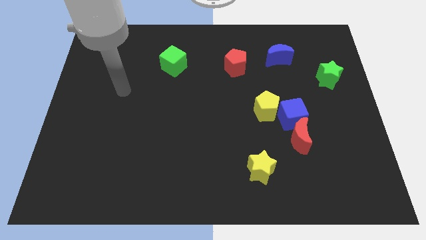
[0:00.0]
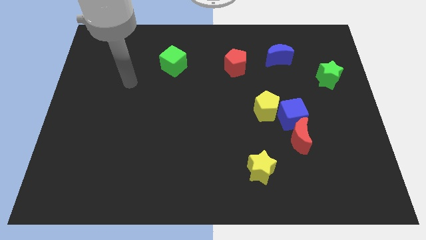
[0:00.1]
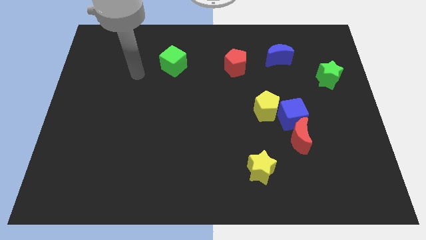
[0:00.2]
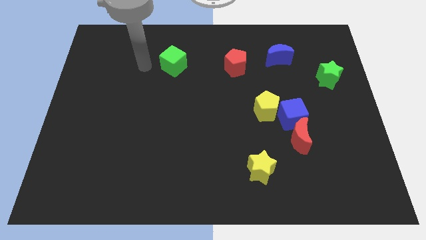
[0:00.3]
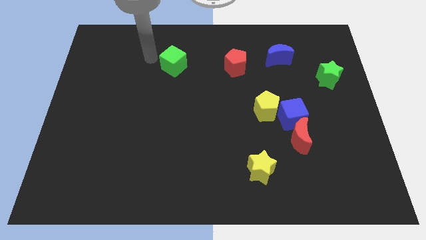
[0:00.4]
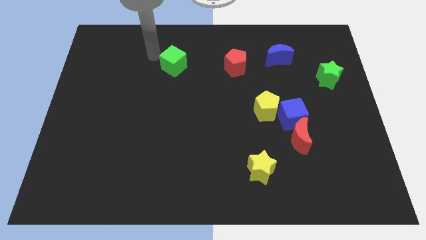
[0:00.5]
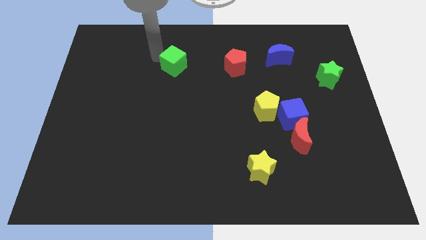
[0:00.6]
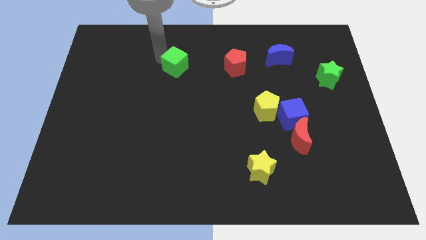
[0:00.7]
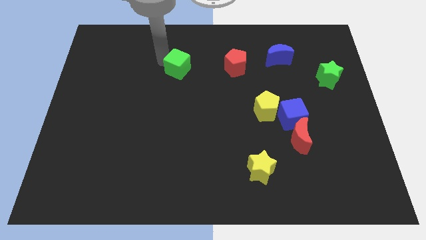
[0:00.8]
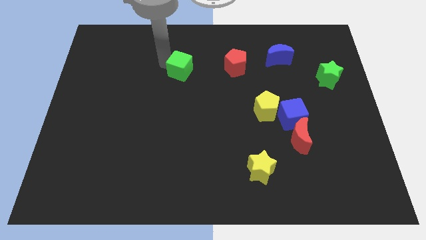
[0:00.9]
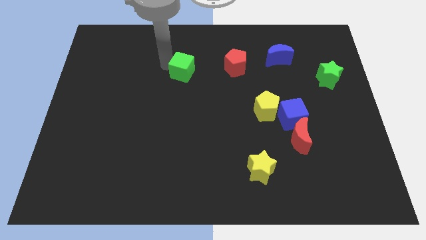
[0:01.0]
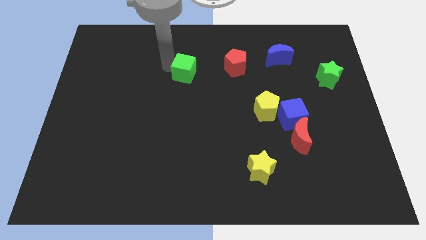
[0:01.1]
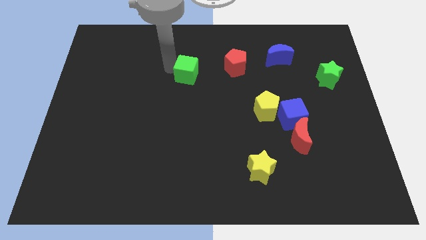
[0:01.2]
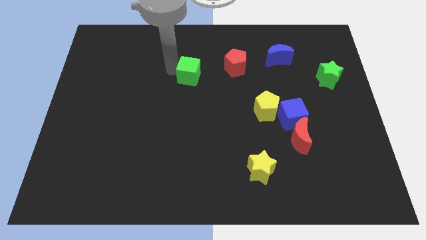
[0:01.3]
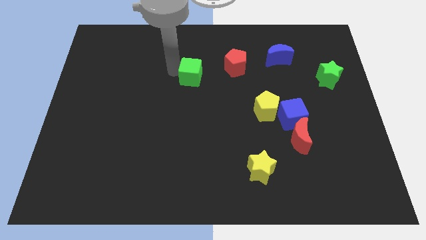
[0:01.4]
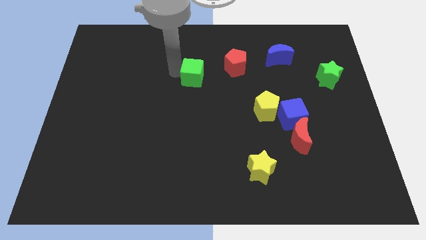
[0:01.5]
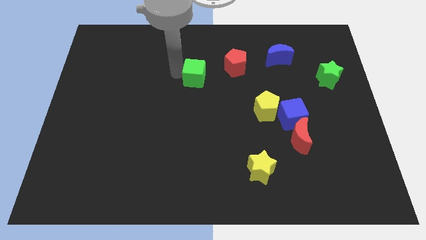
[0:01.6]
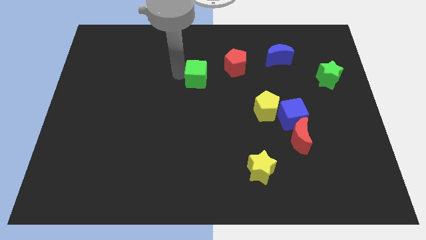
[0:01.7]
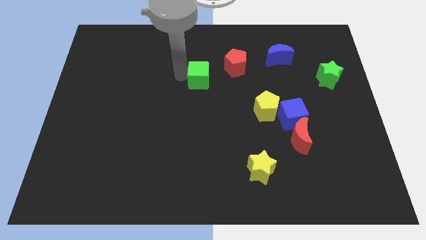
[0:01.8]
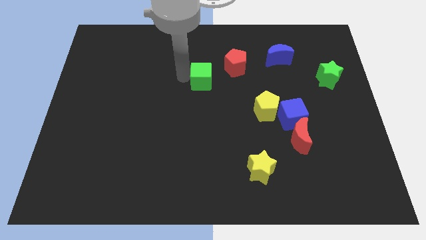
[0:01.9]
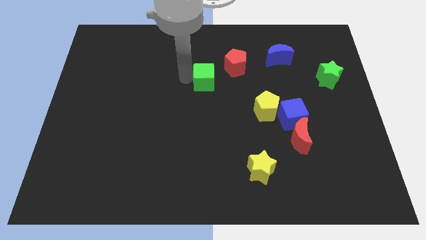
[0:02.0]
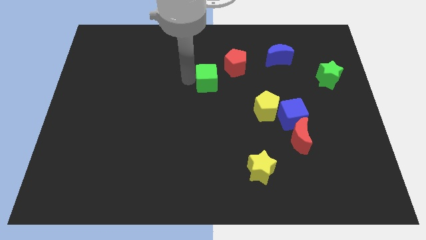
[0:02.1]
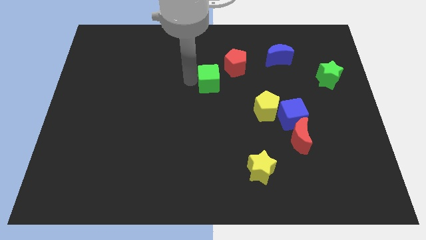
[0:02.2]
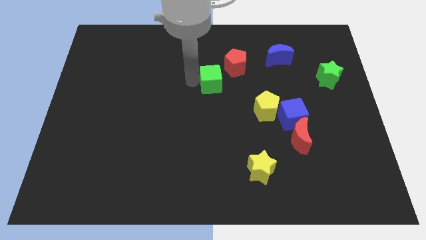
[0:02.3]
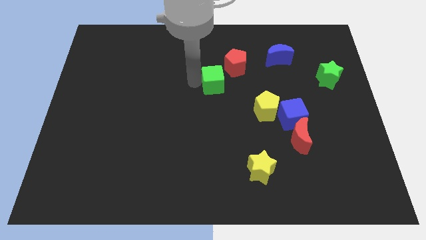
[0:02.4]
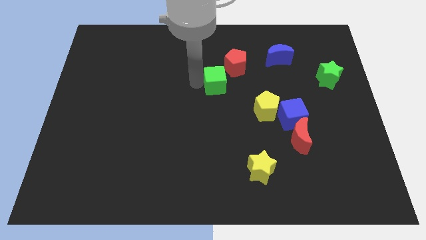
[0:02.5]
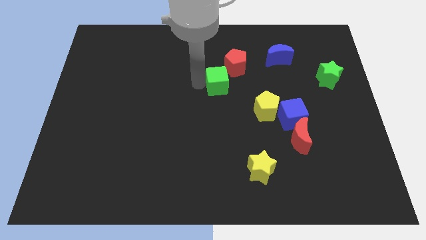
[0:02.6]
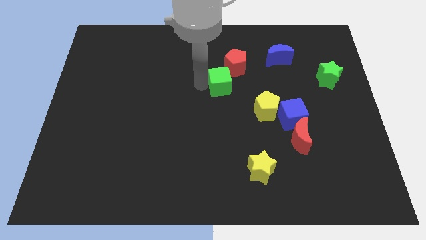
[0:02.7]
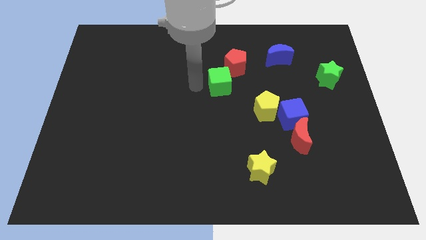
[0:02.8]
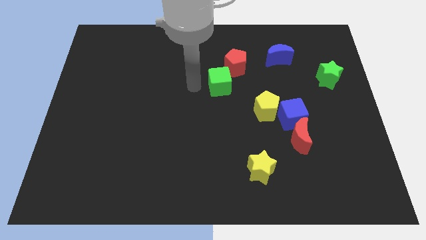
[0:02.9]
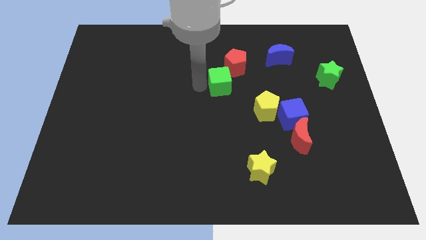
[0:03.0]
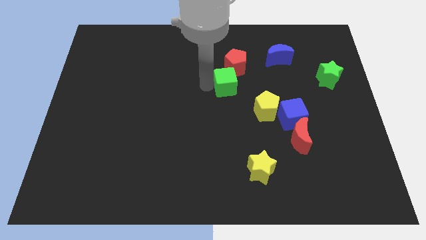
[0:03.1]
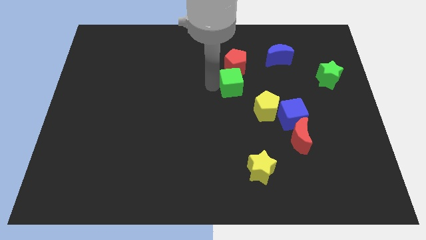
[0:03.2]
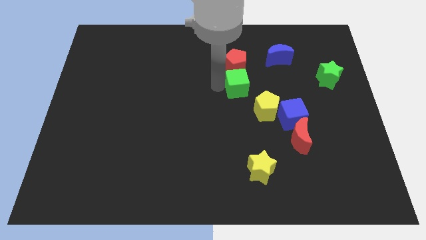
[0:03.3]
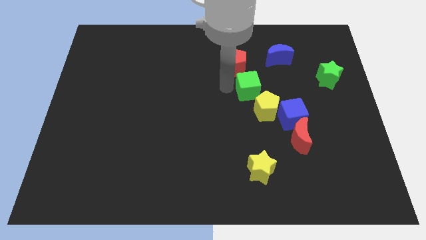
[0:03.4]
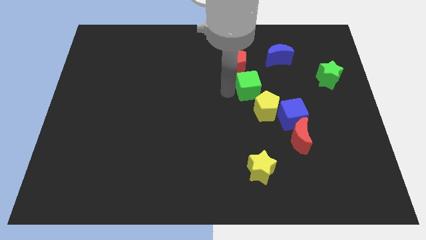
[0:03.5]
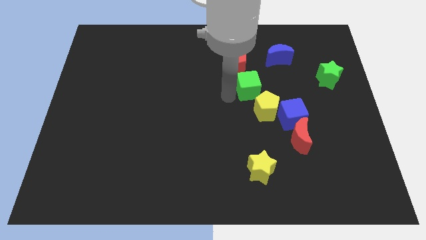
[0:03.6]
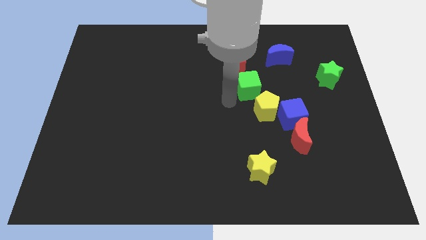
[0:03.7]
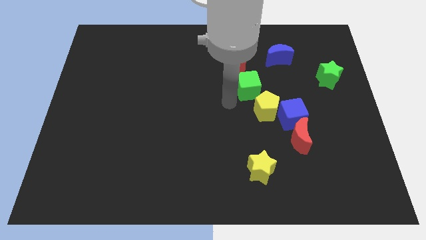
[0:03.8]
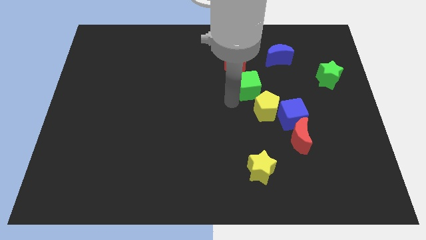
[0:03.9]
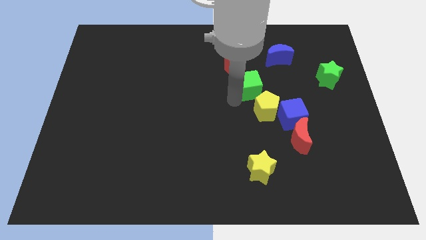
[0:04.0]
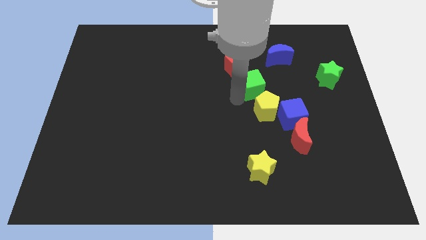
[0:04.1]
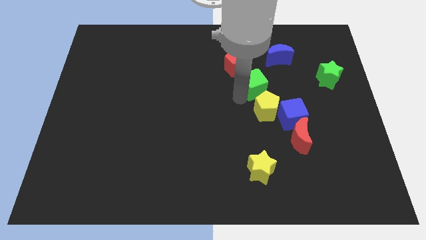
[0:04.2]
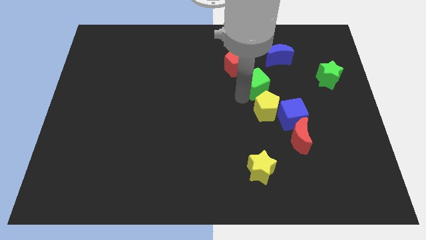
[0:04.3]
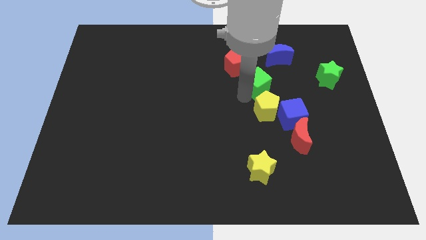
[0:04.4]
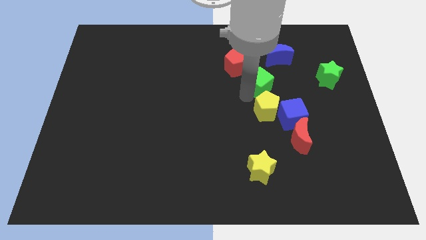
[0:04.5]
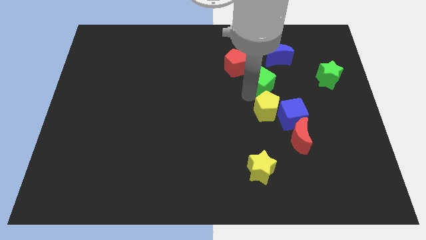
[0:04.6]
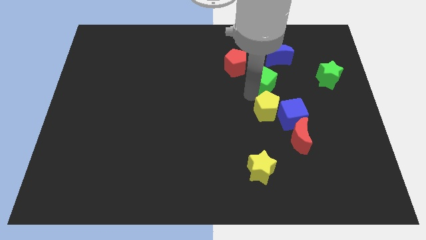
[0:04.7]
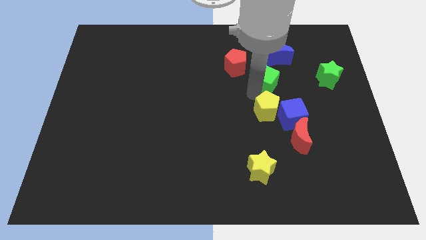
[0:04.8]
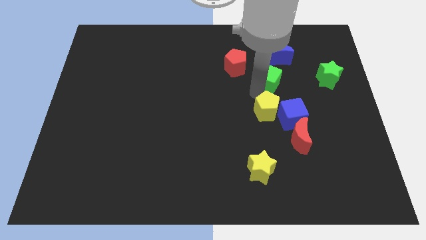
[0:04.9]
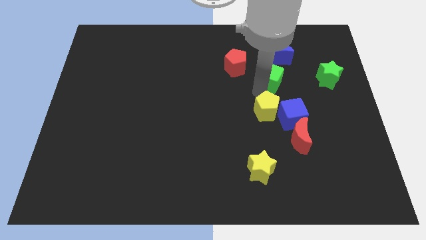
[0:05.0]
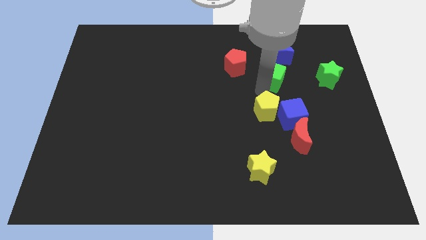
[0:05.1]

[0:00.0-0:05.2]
put the green cube just right of the red pentagon

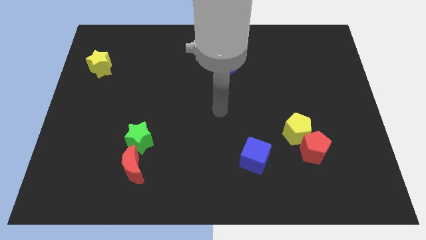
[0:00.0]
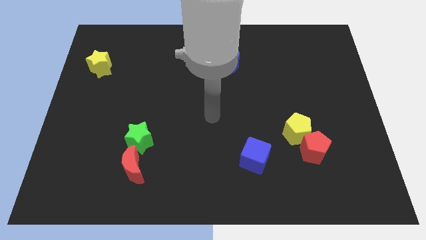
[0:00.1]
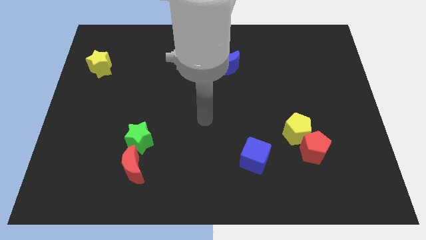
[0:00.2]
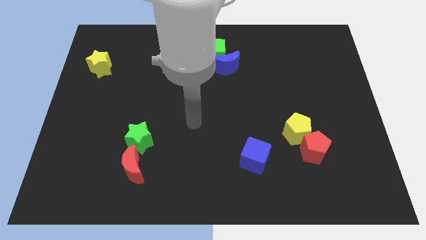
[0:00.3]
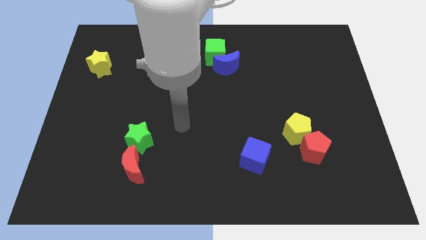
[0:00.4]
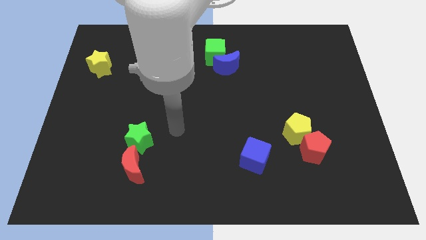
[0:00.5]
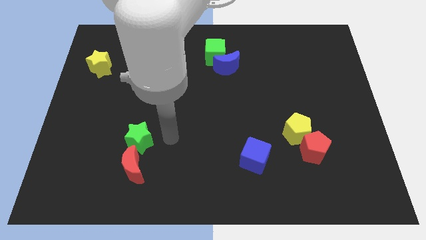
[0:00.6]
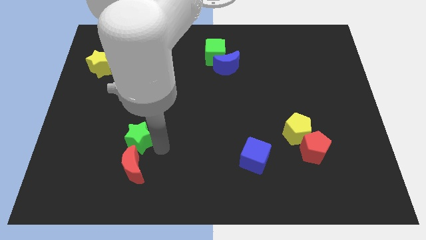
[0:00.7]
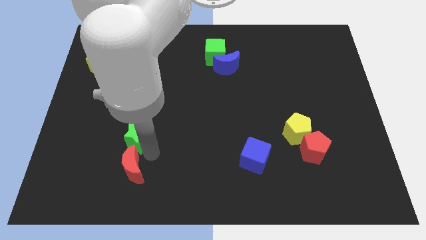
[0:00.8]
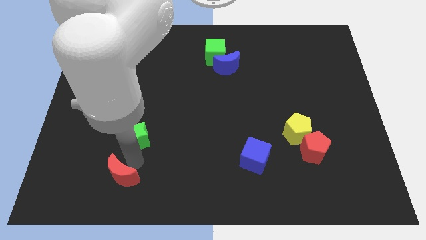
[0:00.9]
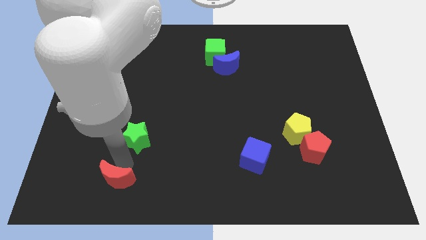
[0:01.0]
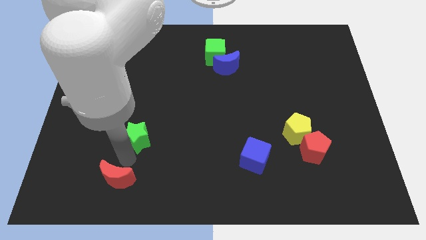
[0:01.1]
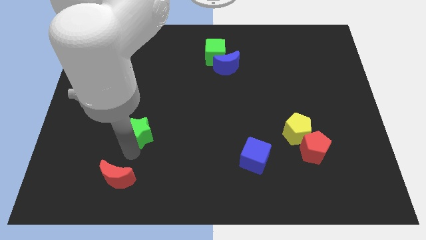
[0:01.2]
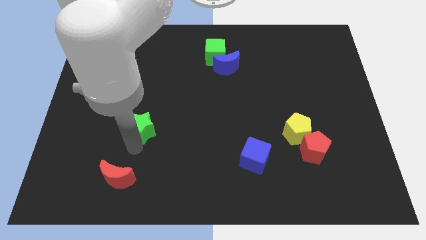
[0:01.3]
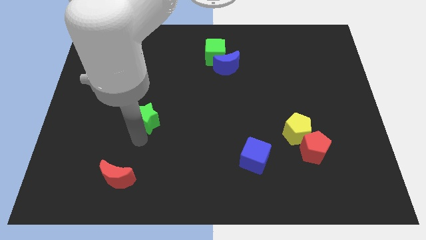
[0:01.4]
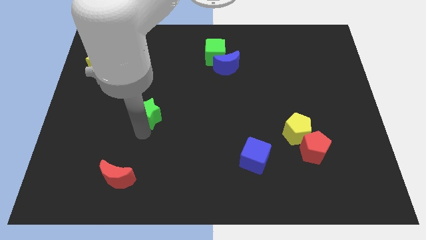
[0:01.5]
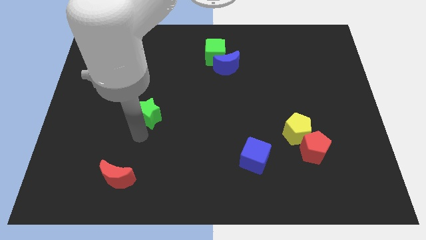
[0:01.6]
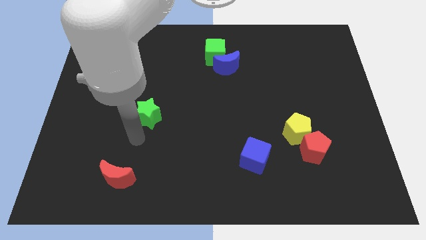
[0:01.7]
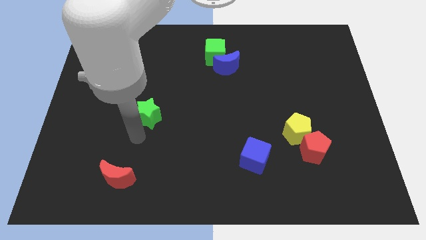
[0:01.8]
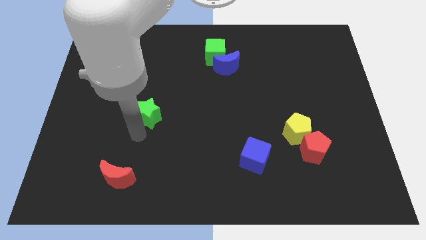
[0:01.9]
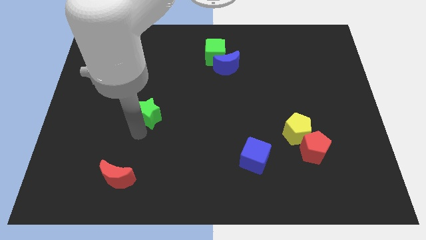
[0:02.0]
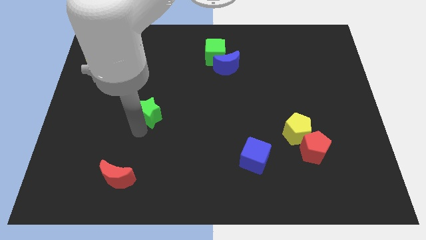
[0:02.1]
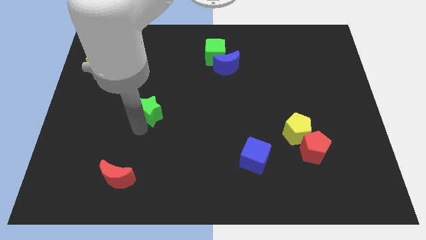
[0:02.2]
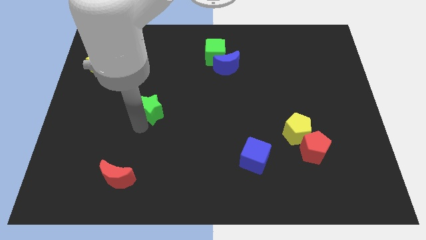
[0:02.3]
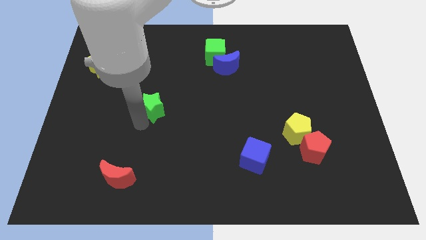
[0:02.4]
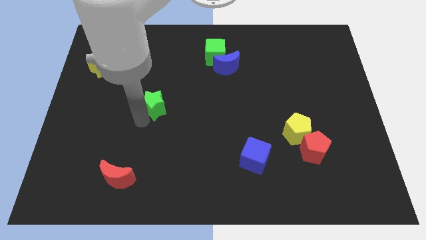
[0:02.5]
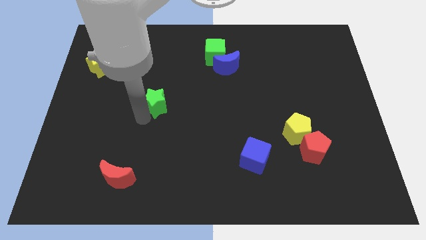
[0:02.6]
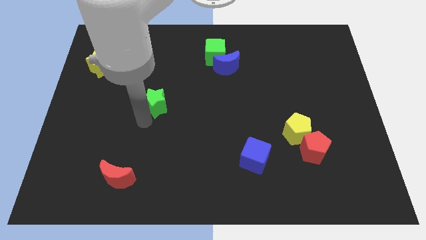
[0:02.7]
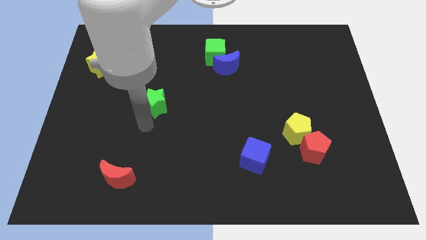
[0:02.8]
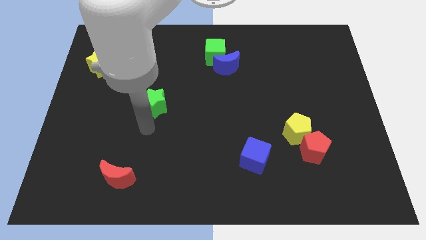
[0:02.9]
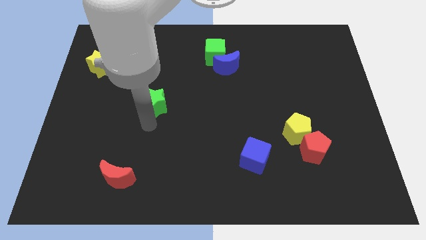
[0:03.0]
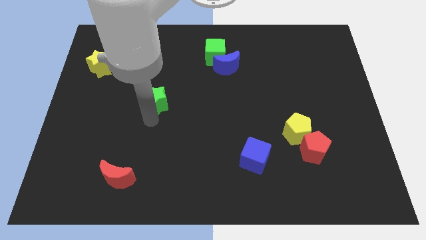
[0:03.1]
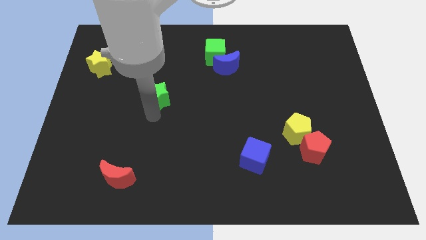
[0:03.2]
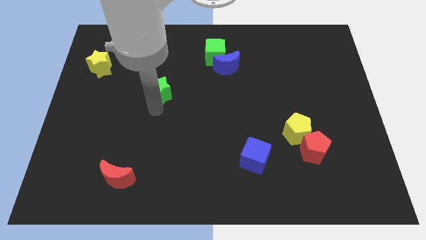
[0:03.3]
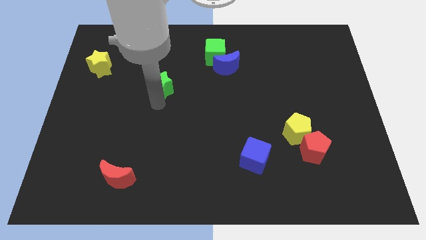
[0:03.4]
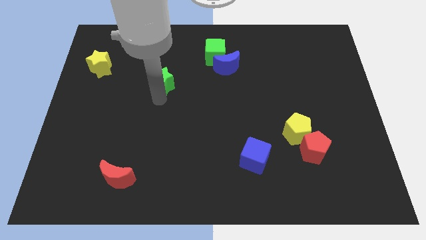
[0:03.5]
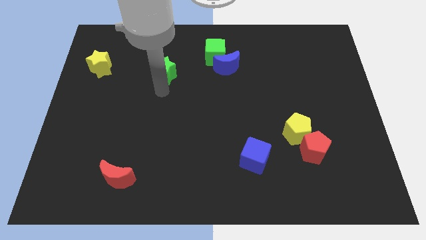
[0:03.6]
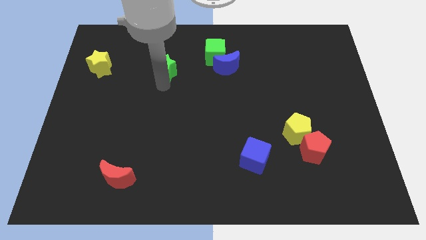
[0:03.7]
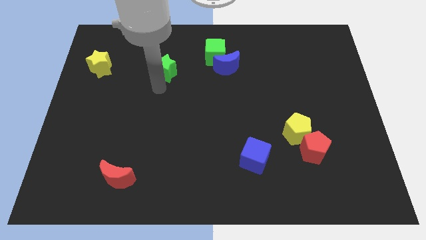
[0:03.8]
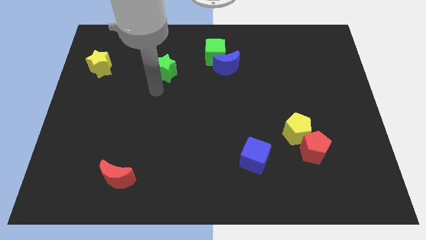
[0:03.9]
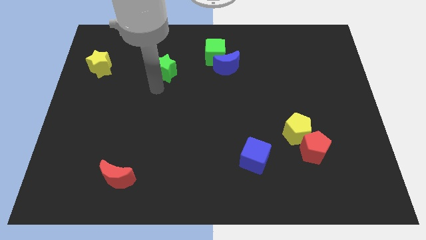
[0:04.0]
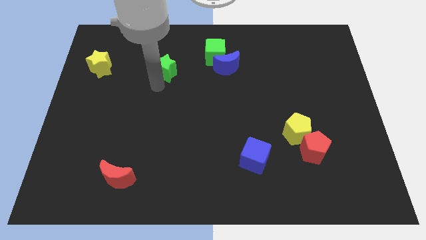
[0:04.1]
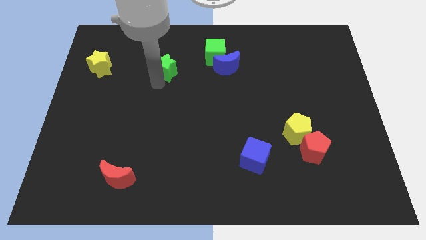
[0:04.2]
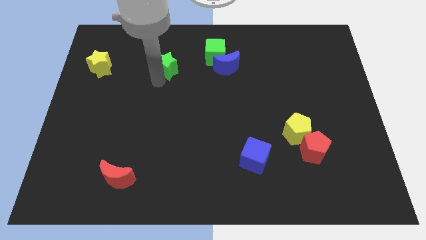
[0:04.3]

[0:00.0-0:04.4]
put the green star to the left of the green cube
